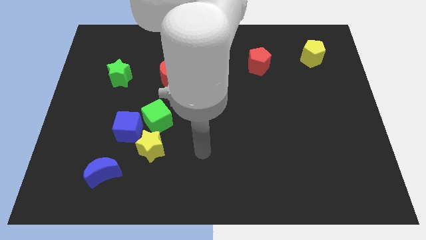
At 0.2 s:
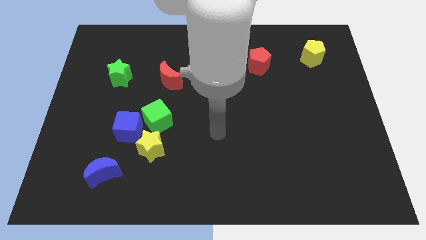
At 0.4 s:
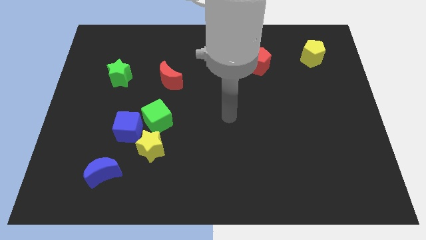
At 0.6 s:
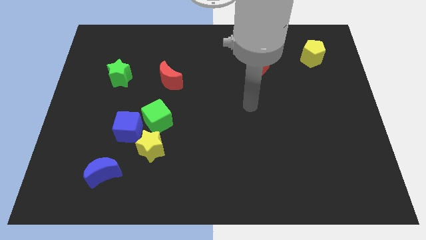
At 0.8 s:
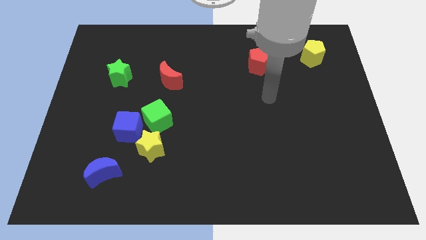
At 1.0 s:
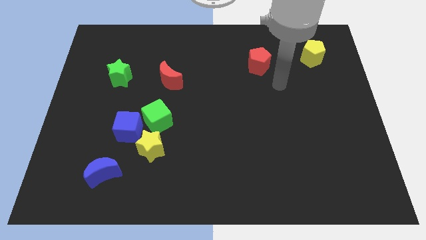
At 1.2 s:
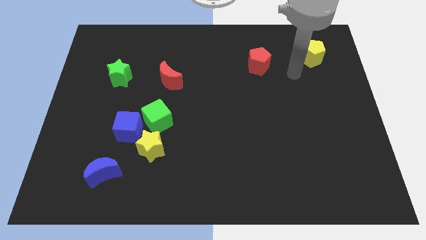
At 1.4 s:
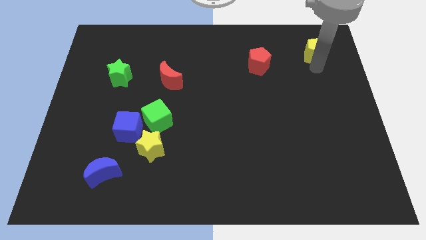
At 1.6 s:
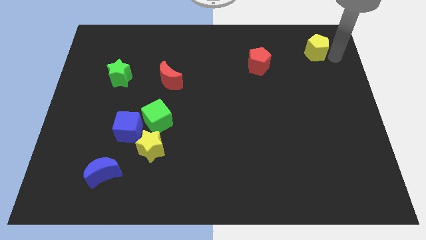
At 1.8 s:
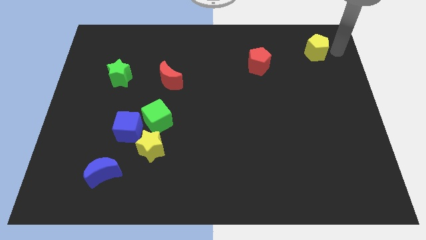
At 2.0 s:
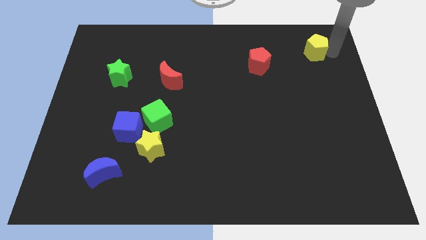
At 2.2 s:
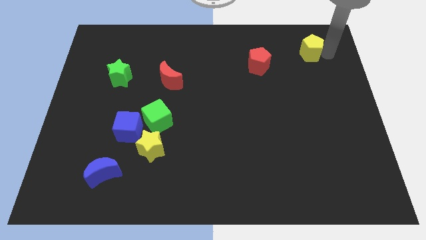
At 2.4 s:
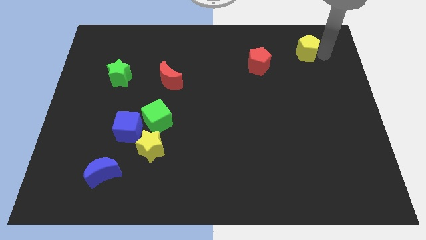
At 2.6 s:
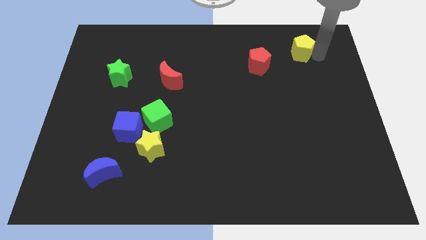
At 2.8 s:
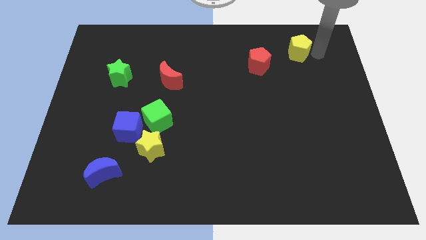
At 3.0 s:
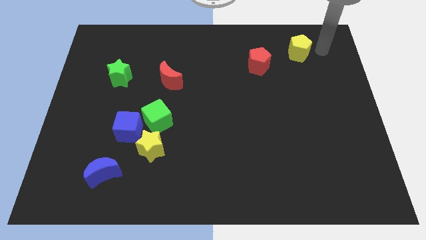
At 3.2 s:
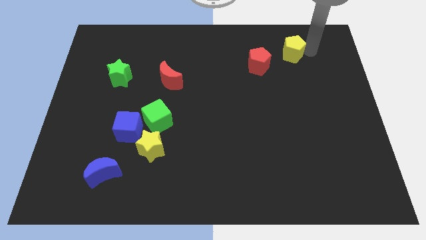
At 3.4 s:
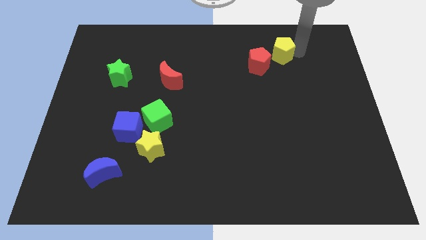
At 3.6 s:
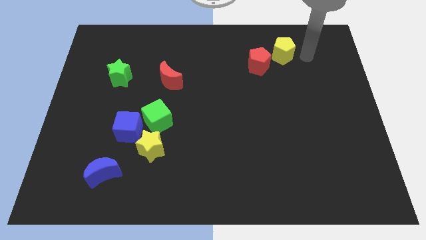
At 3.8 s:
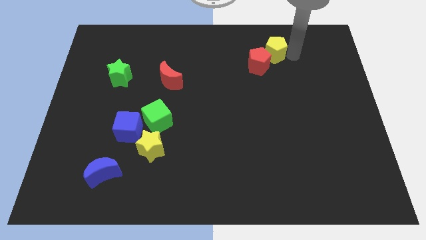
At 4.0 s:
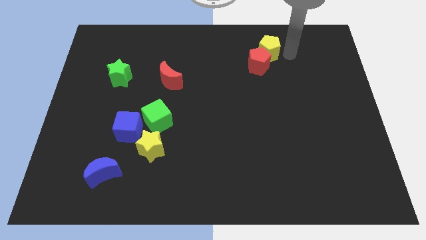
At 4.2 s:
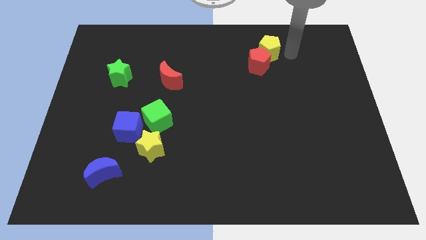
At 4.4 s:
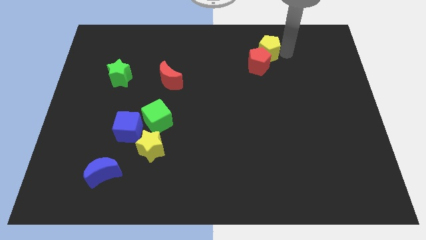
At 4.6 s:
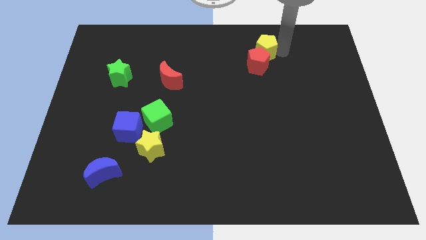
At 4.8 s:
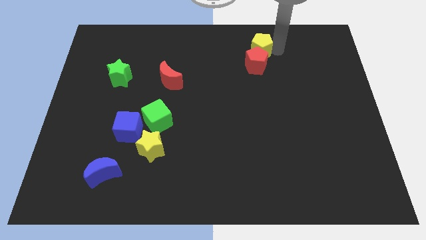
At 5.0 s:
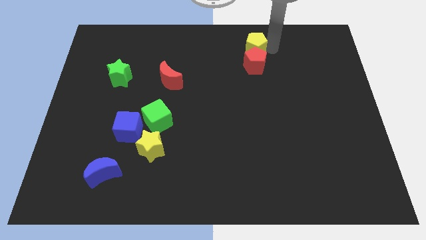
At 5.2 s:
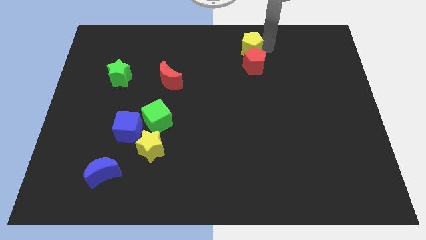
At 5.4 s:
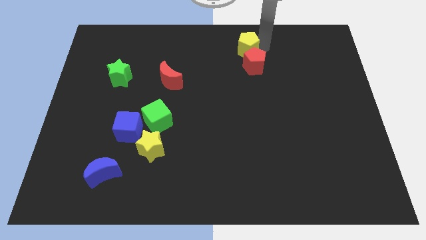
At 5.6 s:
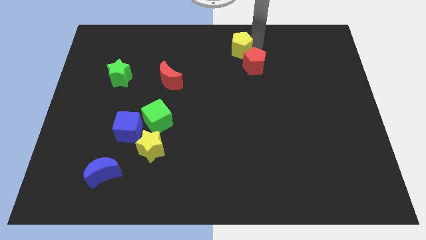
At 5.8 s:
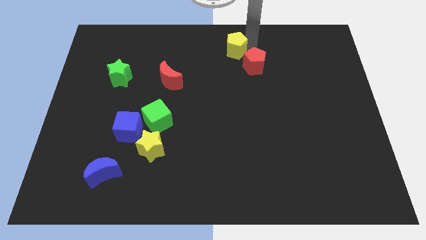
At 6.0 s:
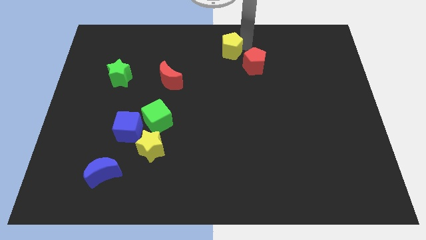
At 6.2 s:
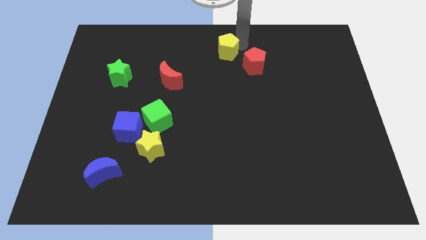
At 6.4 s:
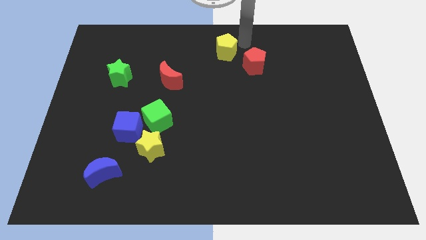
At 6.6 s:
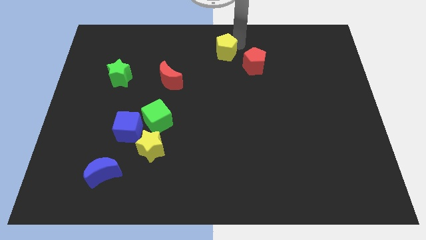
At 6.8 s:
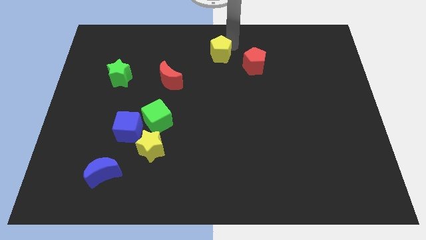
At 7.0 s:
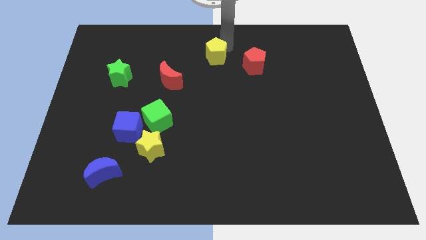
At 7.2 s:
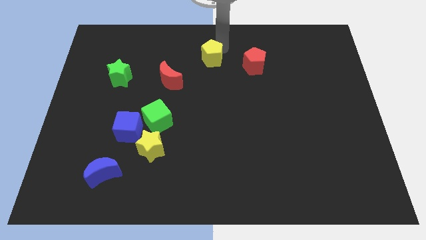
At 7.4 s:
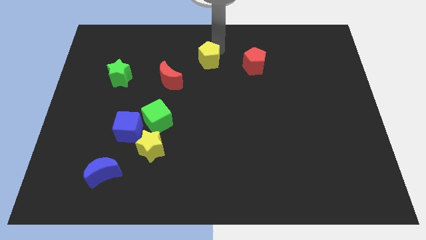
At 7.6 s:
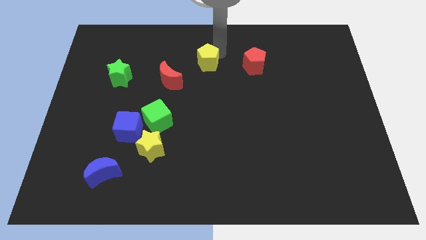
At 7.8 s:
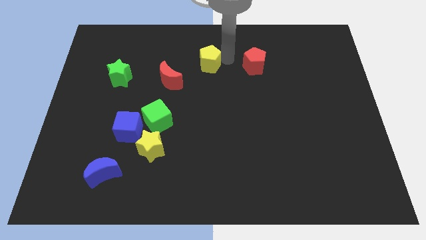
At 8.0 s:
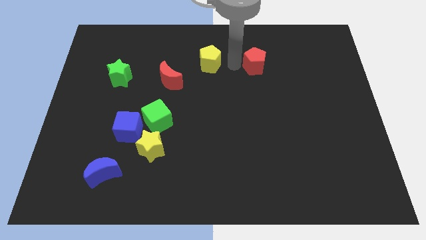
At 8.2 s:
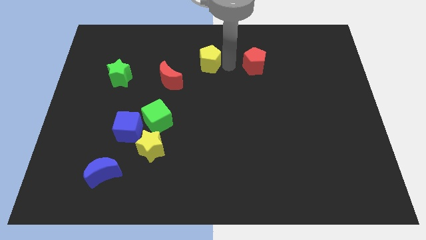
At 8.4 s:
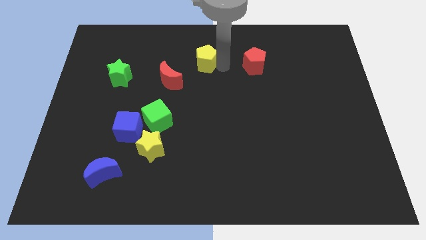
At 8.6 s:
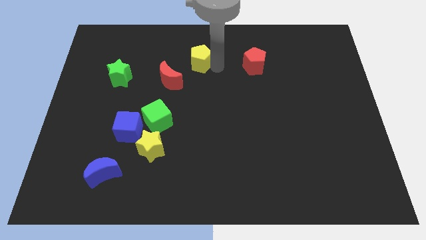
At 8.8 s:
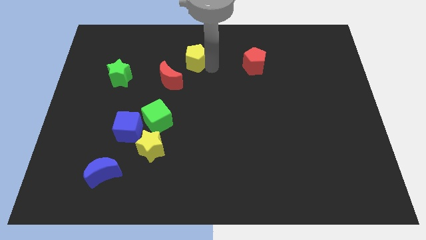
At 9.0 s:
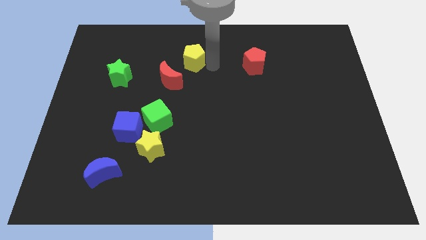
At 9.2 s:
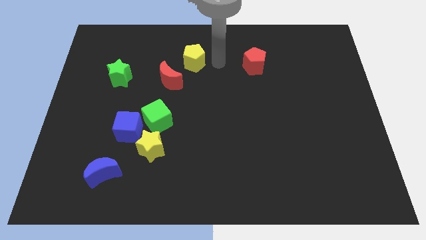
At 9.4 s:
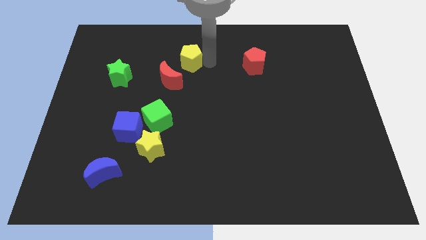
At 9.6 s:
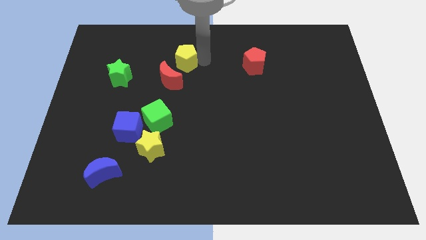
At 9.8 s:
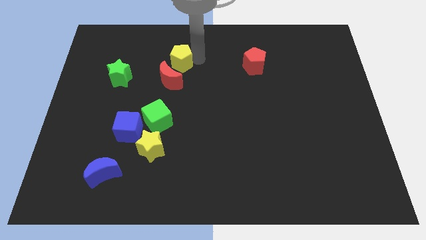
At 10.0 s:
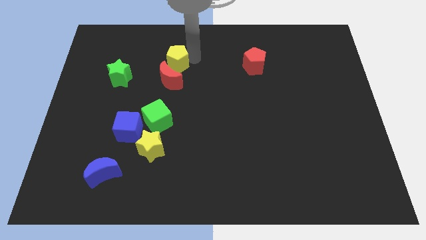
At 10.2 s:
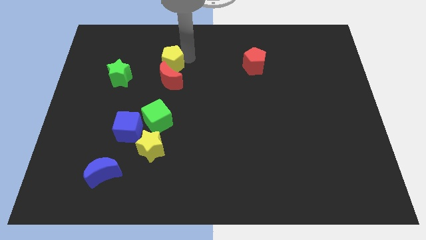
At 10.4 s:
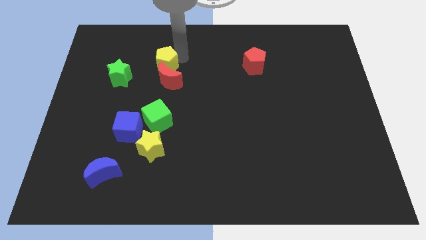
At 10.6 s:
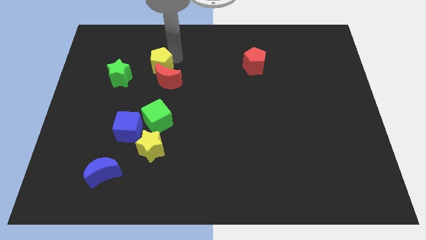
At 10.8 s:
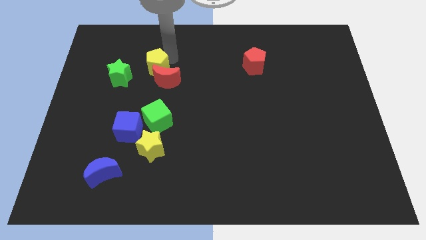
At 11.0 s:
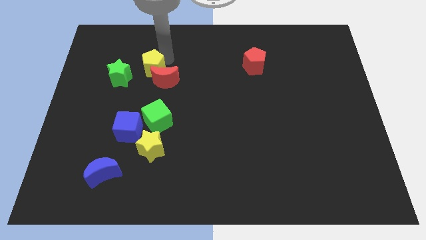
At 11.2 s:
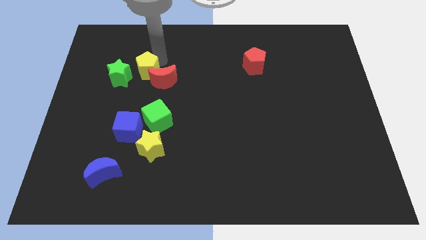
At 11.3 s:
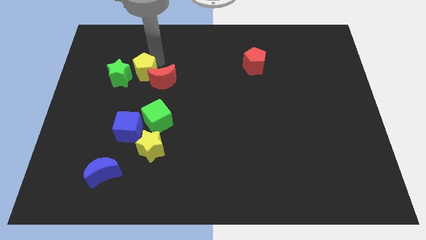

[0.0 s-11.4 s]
push the yellow pentagon next to the green star

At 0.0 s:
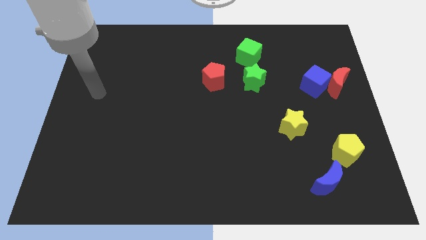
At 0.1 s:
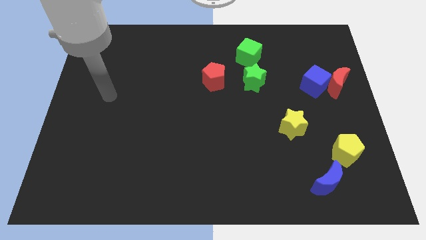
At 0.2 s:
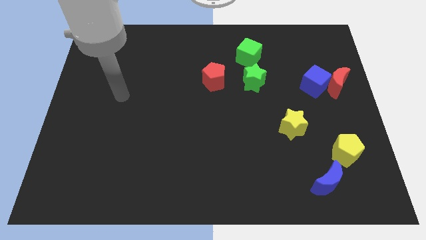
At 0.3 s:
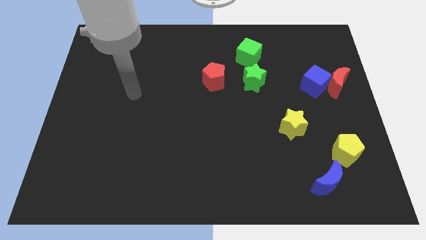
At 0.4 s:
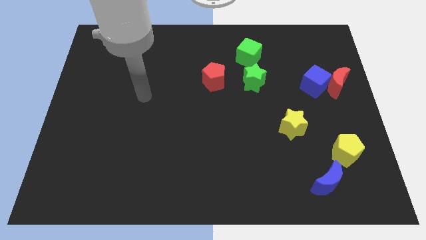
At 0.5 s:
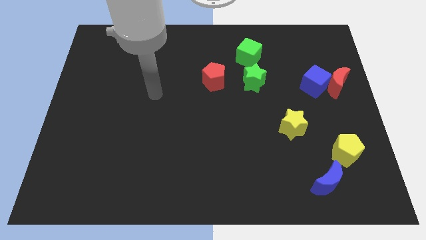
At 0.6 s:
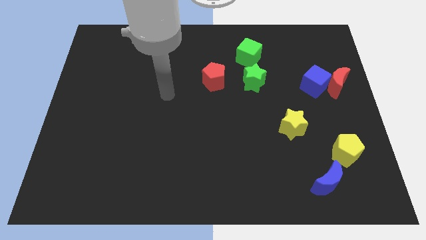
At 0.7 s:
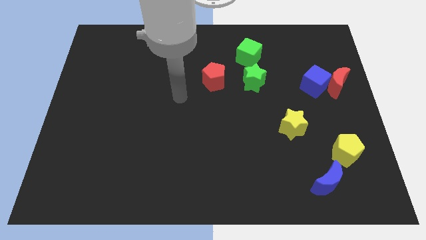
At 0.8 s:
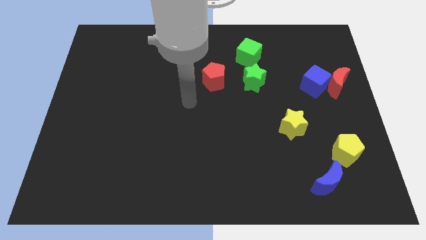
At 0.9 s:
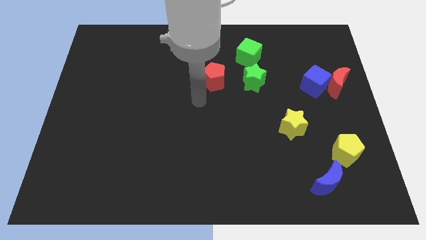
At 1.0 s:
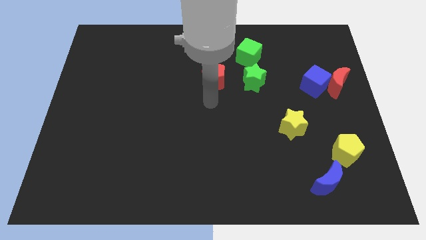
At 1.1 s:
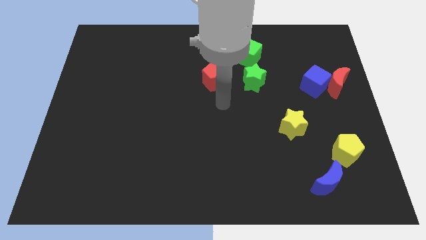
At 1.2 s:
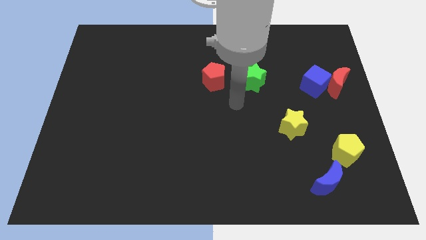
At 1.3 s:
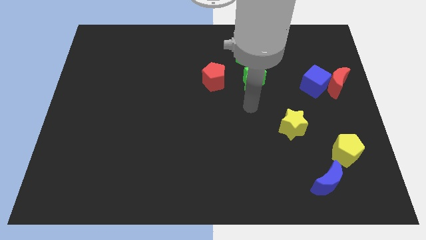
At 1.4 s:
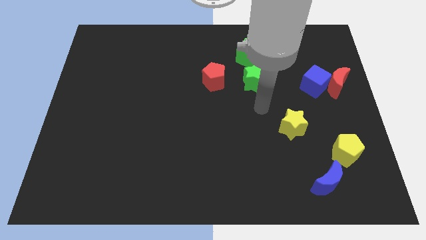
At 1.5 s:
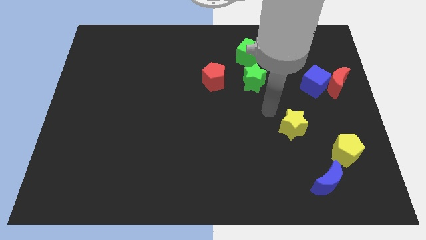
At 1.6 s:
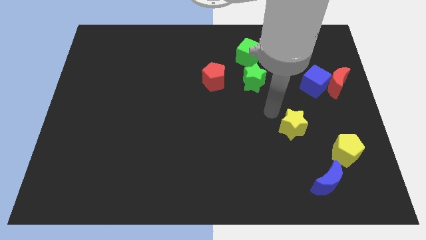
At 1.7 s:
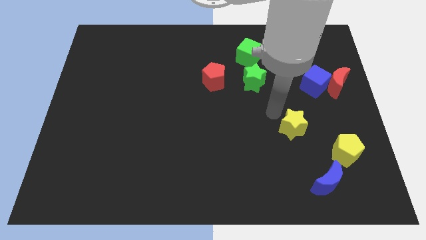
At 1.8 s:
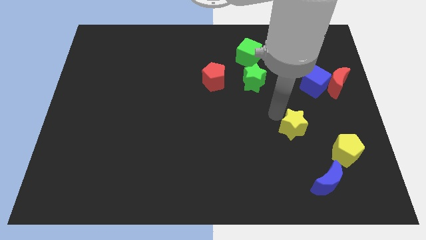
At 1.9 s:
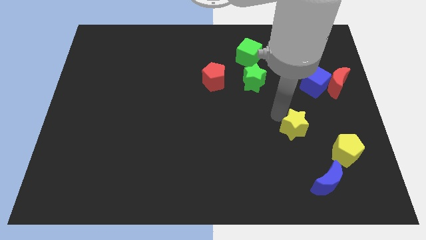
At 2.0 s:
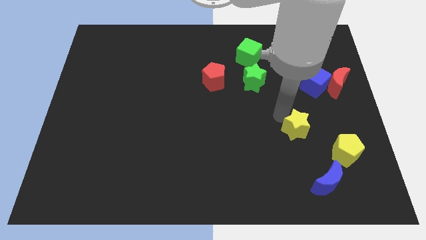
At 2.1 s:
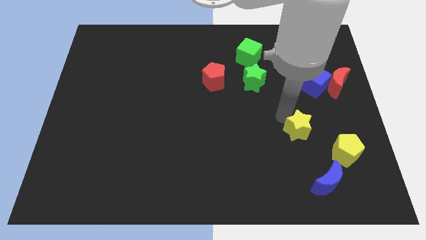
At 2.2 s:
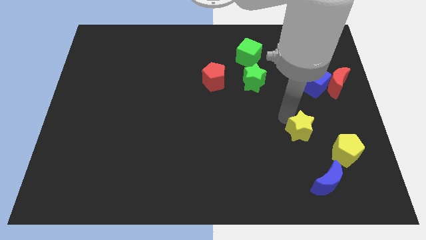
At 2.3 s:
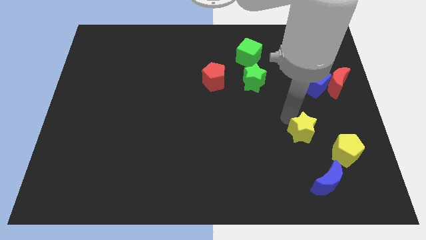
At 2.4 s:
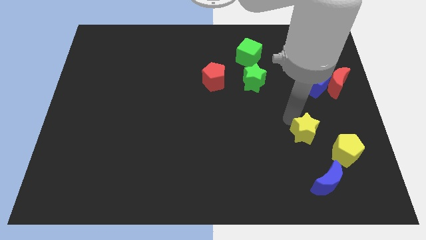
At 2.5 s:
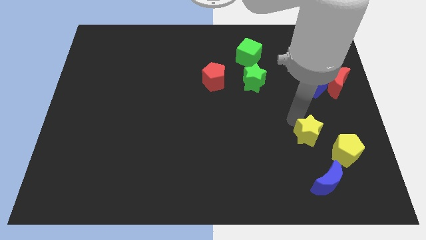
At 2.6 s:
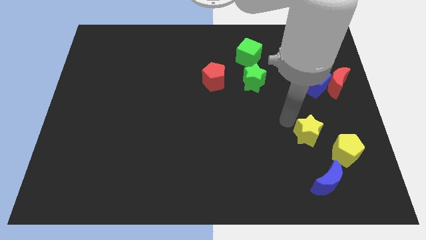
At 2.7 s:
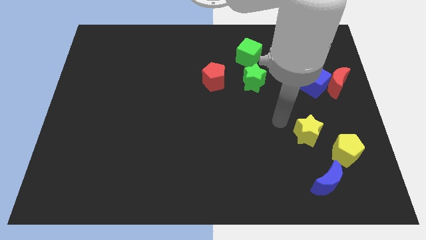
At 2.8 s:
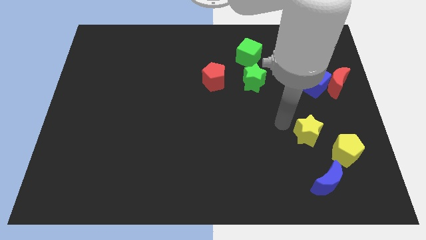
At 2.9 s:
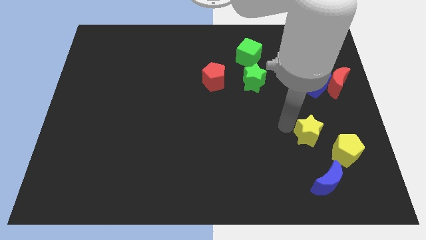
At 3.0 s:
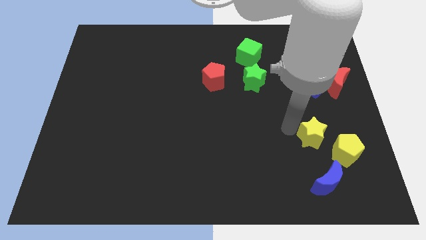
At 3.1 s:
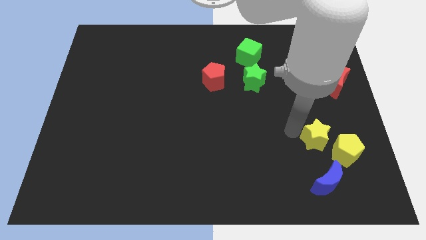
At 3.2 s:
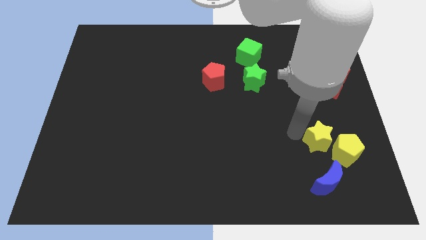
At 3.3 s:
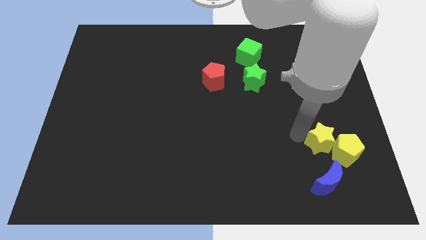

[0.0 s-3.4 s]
push the yellow star next to the yellow pentagon
